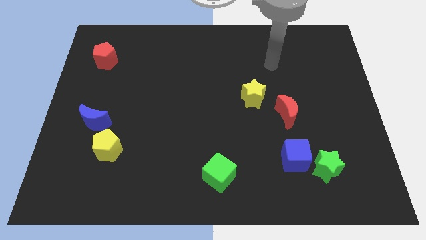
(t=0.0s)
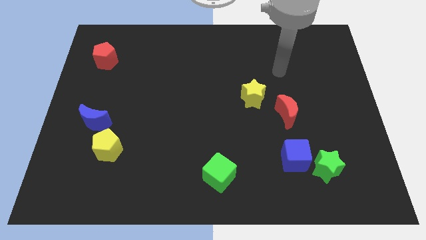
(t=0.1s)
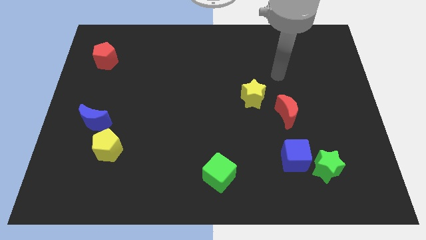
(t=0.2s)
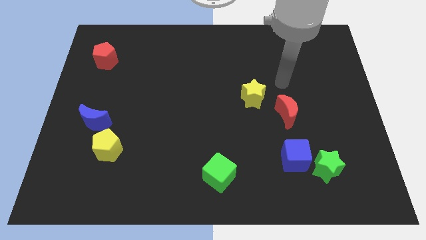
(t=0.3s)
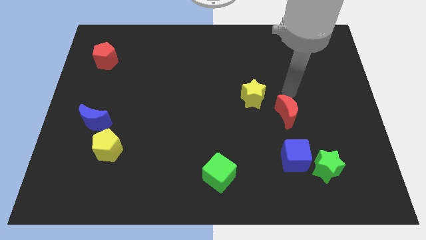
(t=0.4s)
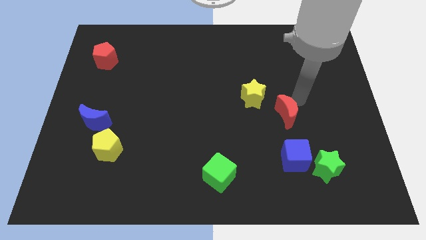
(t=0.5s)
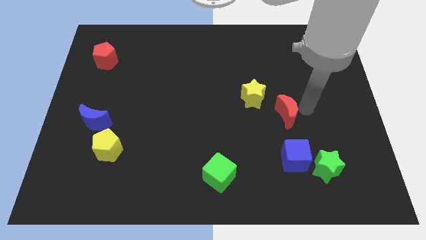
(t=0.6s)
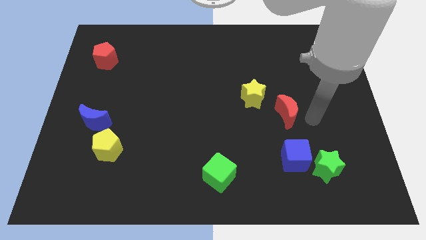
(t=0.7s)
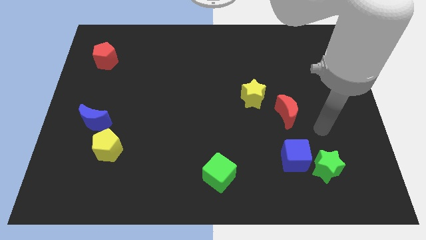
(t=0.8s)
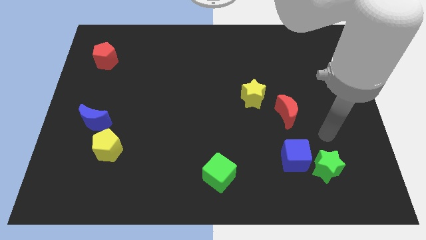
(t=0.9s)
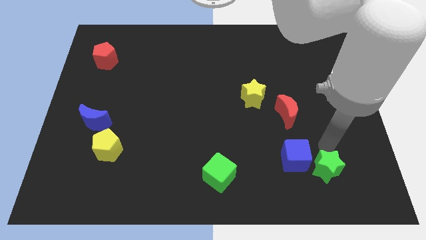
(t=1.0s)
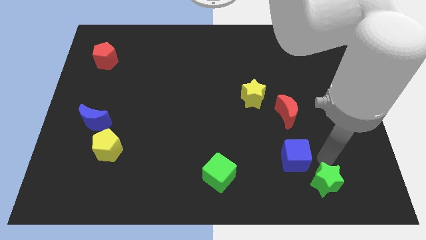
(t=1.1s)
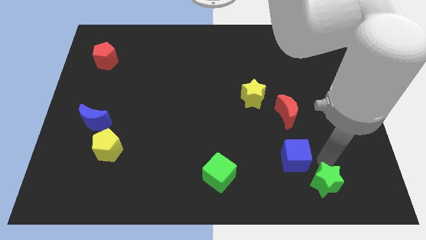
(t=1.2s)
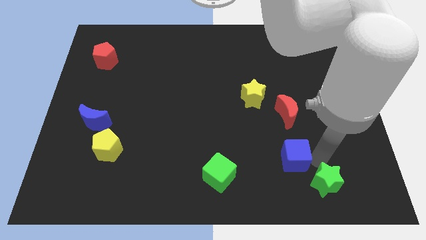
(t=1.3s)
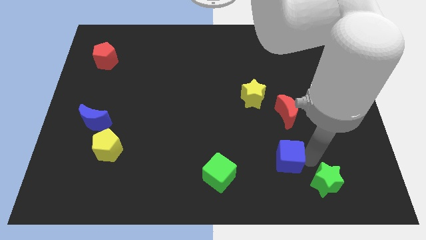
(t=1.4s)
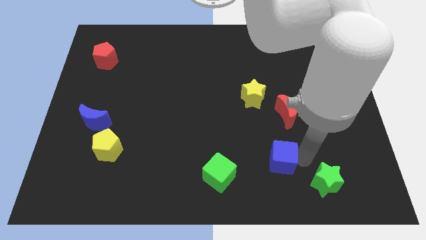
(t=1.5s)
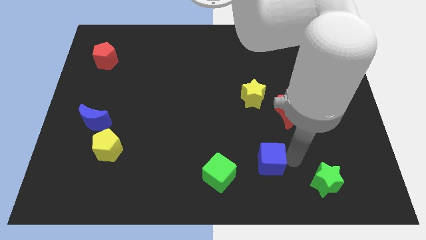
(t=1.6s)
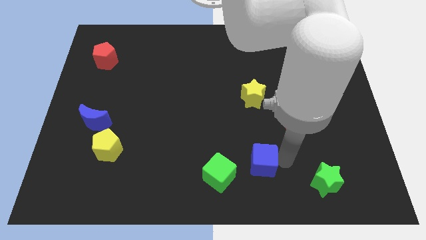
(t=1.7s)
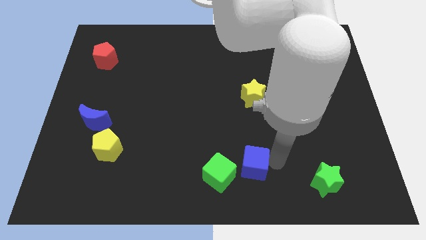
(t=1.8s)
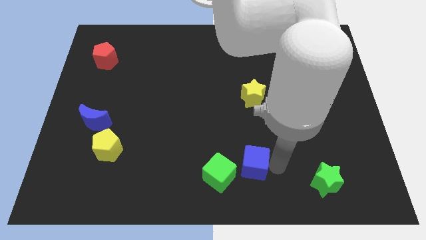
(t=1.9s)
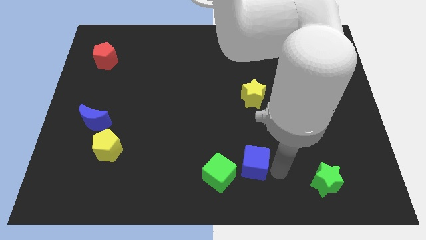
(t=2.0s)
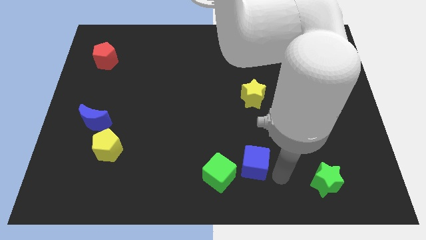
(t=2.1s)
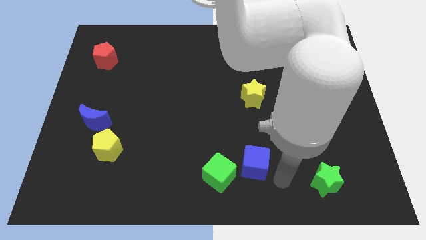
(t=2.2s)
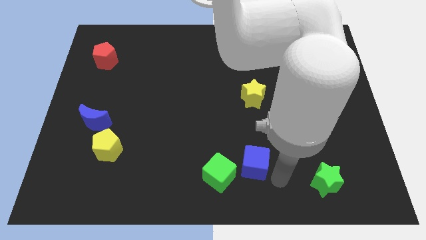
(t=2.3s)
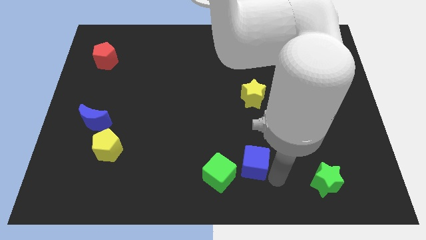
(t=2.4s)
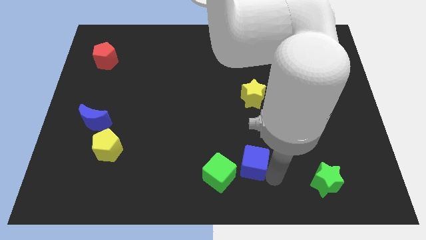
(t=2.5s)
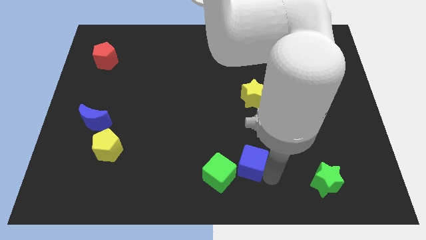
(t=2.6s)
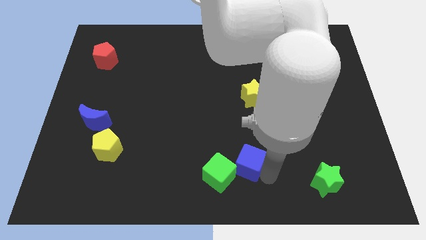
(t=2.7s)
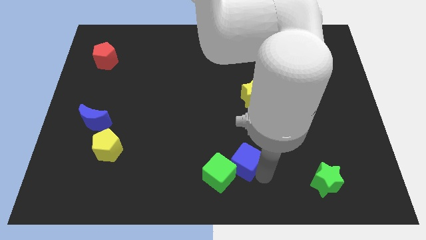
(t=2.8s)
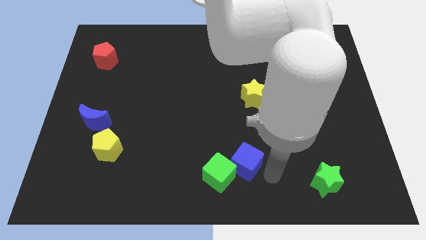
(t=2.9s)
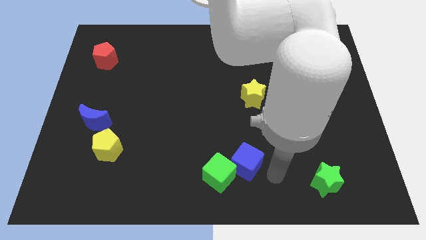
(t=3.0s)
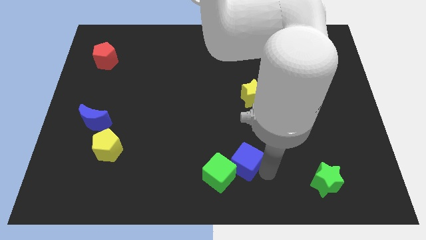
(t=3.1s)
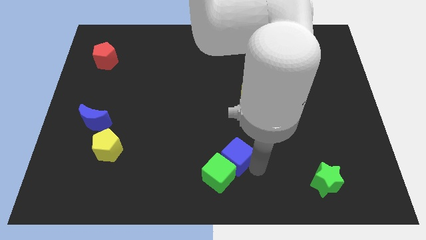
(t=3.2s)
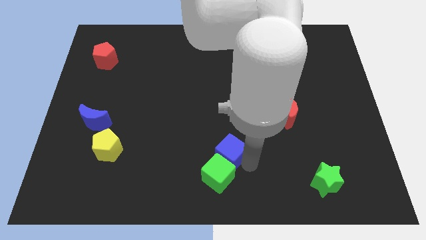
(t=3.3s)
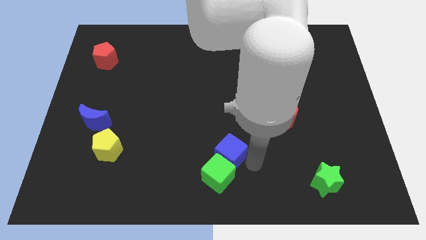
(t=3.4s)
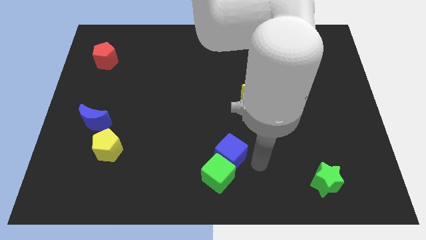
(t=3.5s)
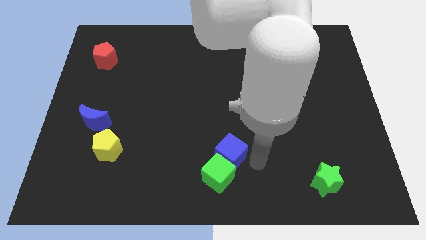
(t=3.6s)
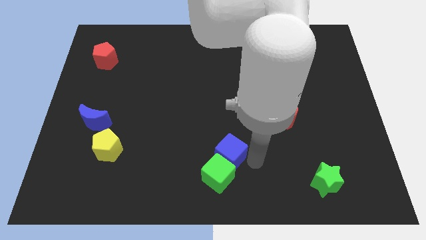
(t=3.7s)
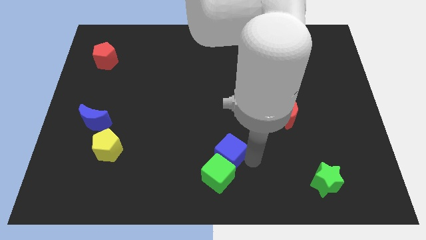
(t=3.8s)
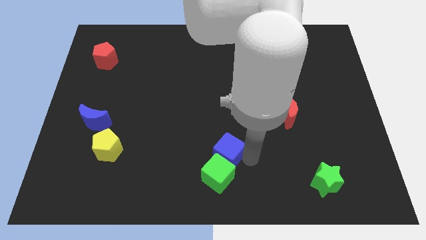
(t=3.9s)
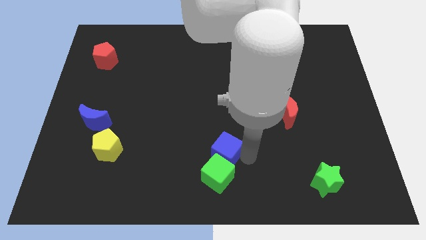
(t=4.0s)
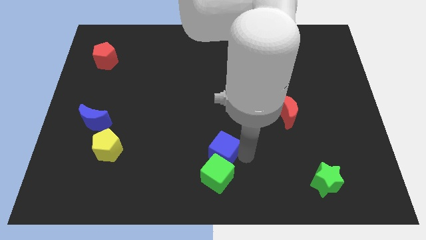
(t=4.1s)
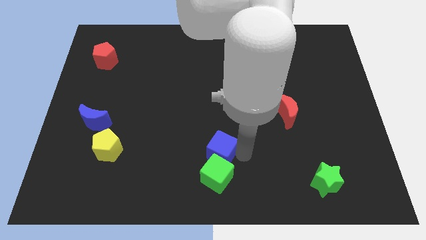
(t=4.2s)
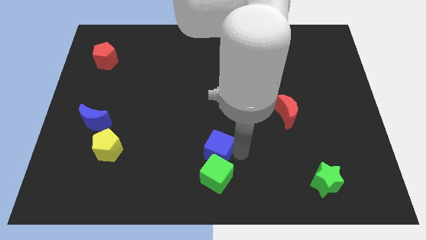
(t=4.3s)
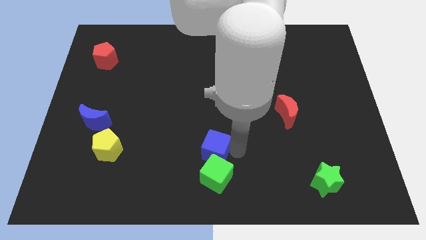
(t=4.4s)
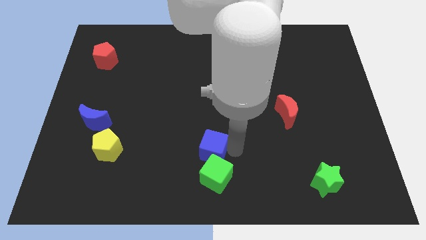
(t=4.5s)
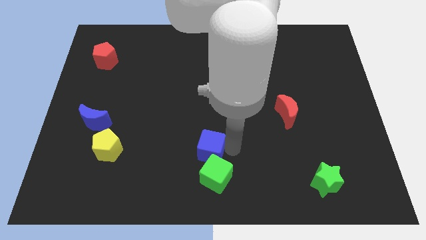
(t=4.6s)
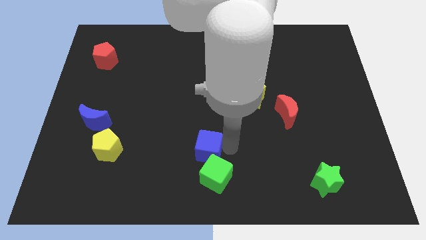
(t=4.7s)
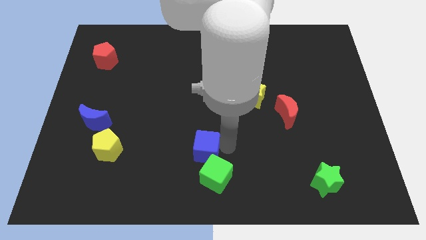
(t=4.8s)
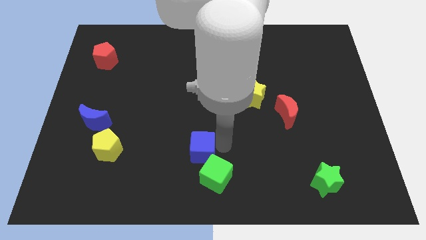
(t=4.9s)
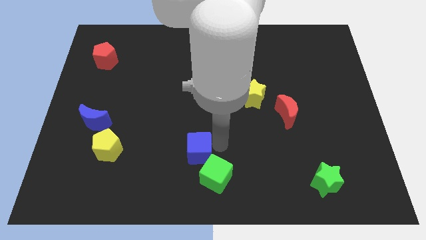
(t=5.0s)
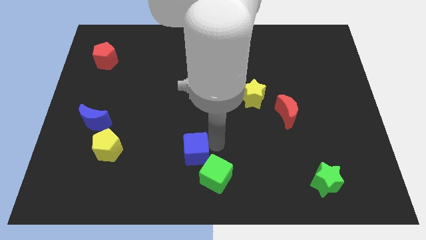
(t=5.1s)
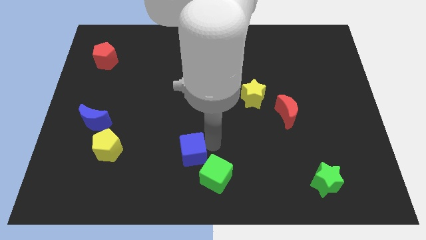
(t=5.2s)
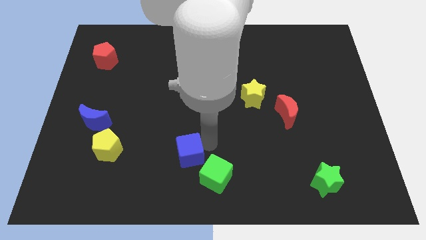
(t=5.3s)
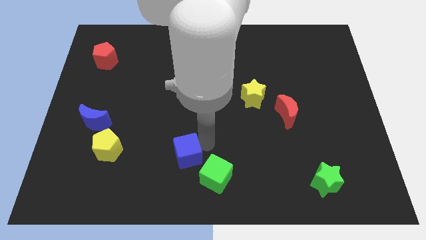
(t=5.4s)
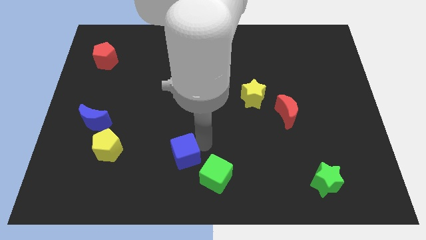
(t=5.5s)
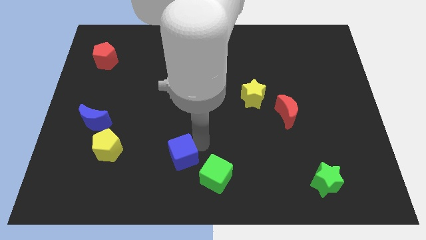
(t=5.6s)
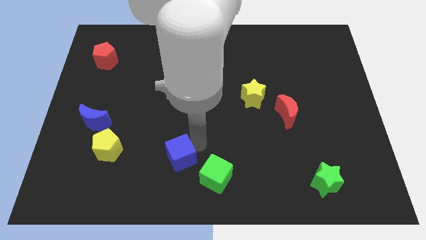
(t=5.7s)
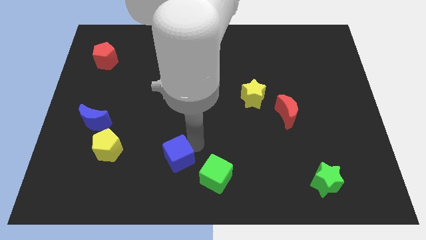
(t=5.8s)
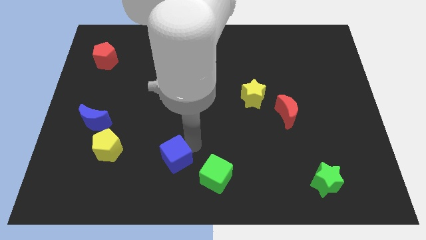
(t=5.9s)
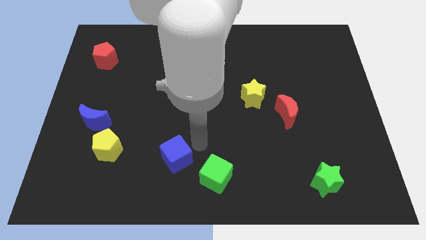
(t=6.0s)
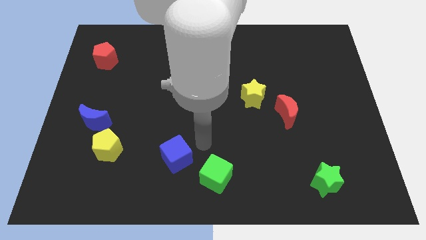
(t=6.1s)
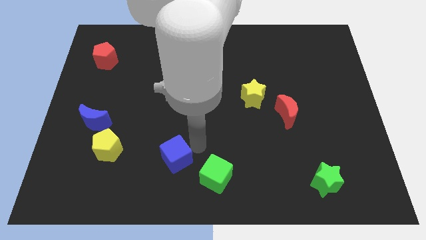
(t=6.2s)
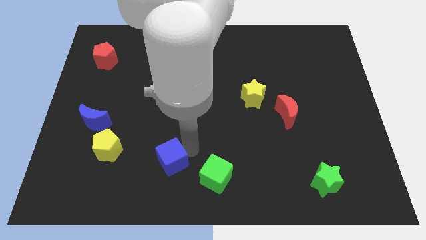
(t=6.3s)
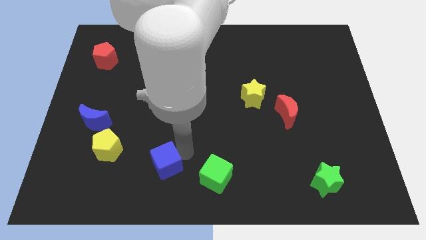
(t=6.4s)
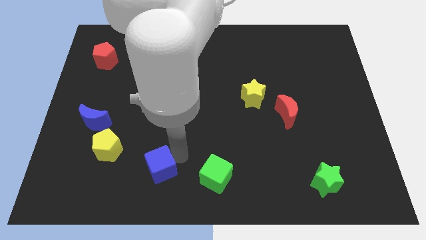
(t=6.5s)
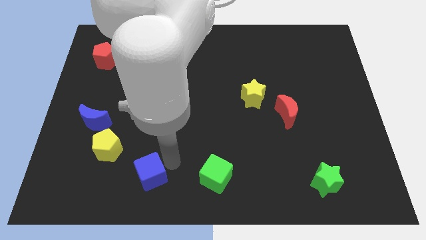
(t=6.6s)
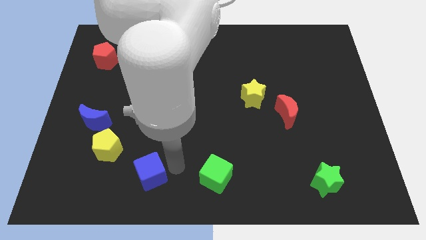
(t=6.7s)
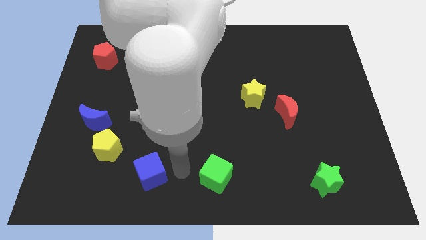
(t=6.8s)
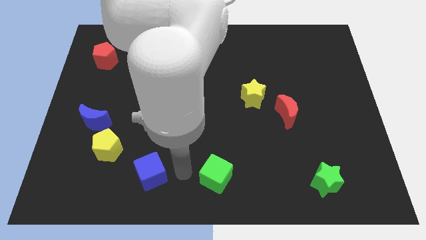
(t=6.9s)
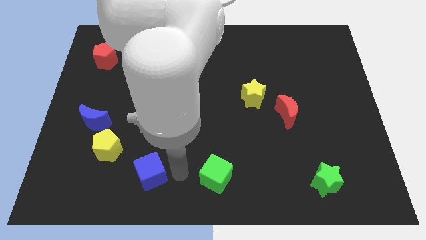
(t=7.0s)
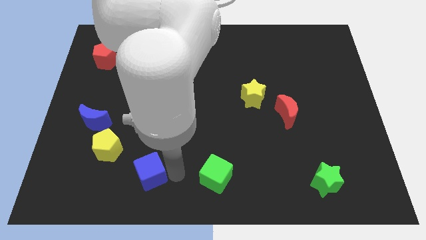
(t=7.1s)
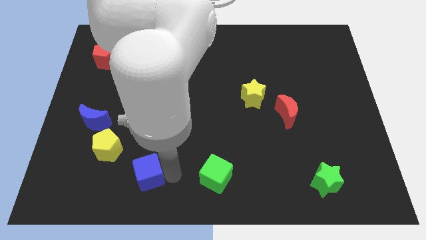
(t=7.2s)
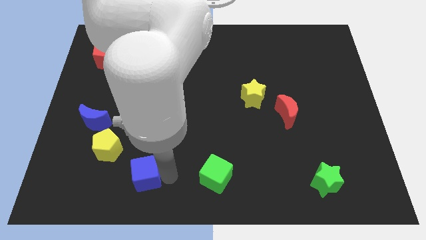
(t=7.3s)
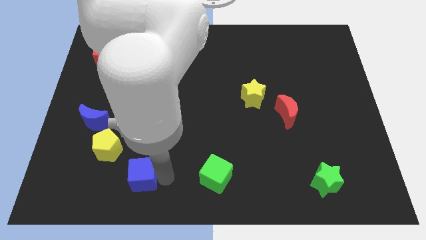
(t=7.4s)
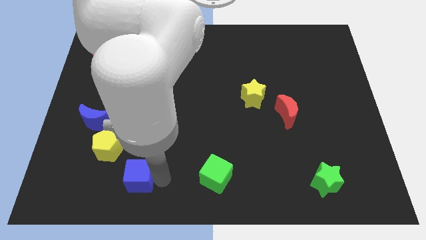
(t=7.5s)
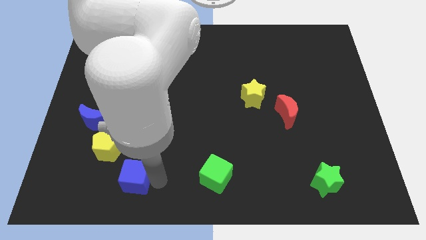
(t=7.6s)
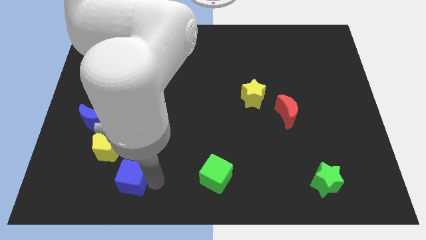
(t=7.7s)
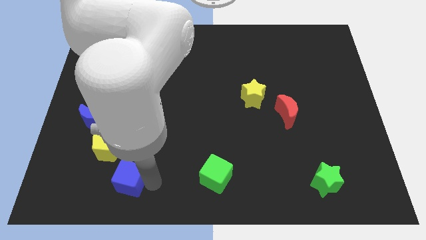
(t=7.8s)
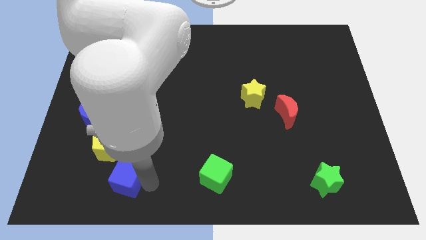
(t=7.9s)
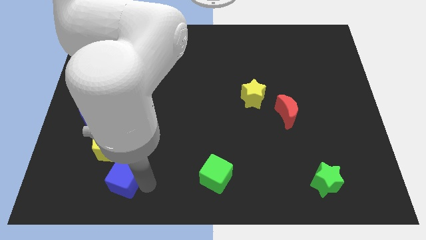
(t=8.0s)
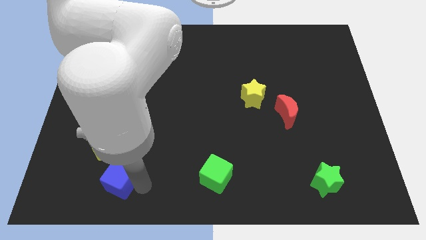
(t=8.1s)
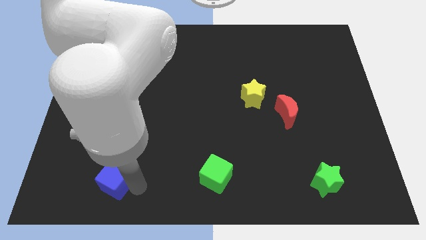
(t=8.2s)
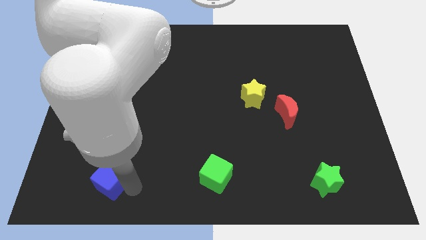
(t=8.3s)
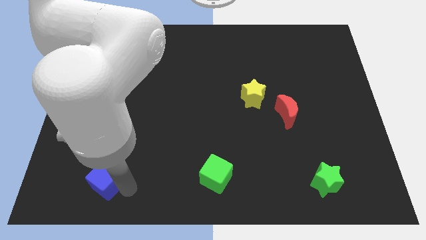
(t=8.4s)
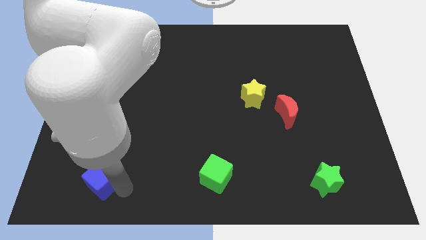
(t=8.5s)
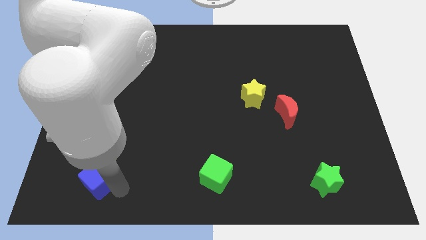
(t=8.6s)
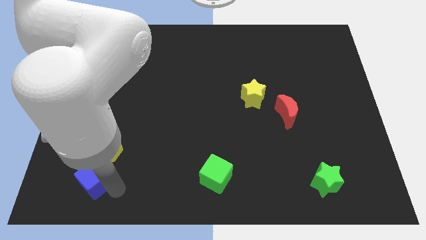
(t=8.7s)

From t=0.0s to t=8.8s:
move the blue cube to the bottom side of the blue moon
